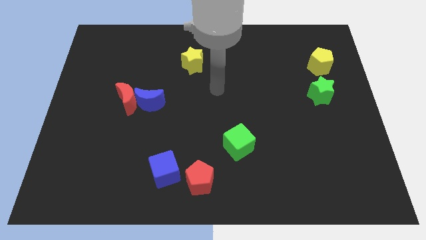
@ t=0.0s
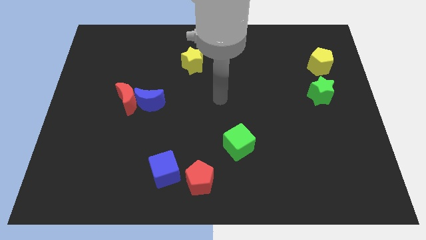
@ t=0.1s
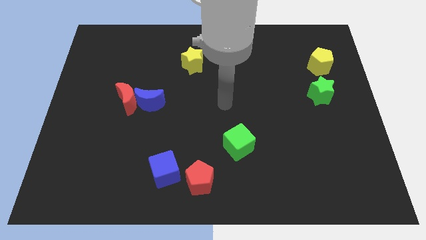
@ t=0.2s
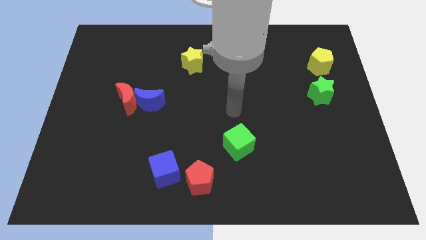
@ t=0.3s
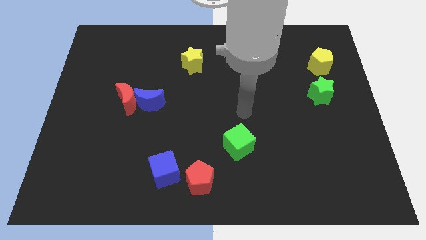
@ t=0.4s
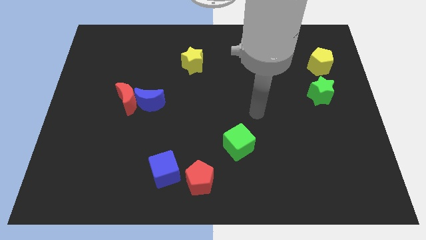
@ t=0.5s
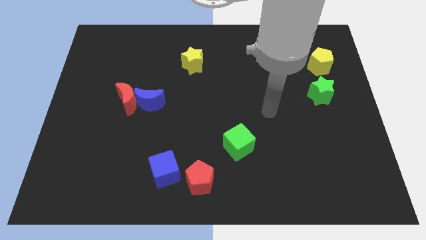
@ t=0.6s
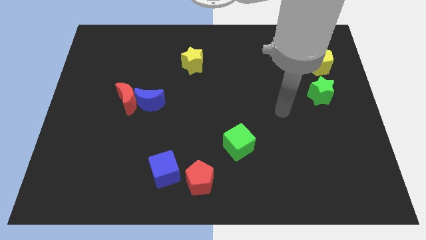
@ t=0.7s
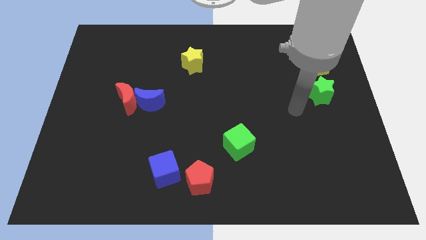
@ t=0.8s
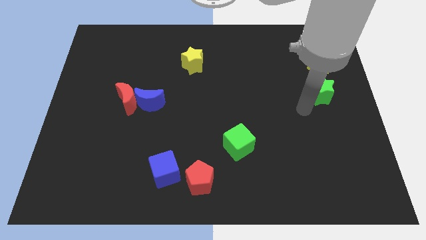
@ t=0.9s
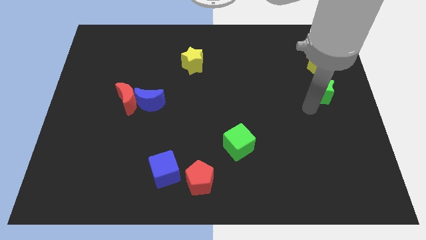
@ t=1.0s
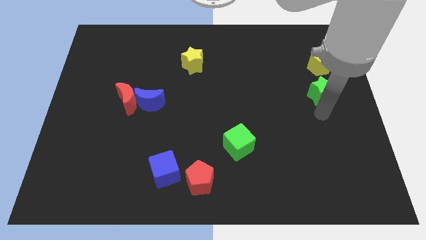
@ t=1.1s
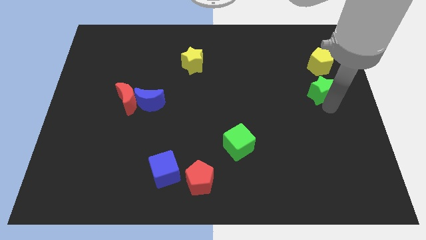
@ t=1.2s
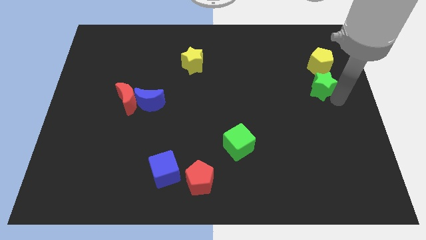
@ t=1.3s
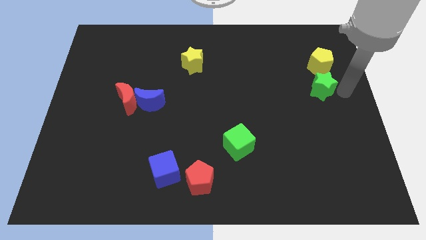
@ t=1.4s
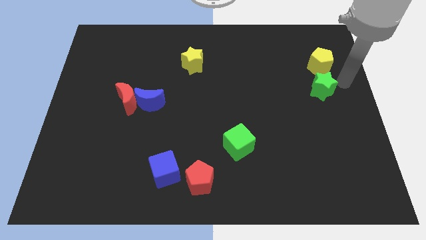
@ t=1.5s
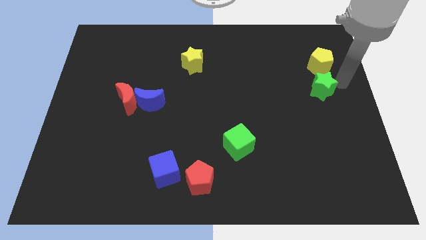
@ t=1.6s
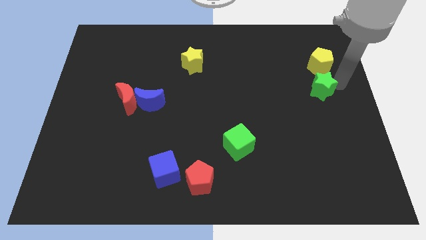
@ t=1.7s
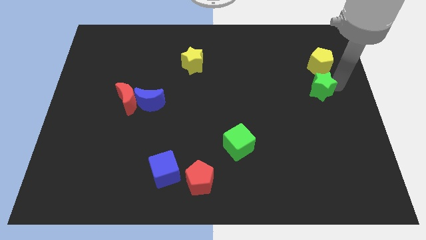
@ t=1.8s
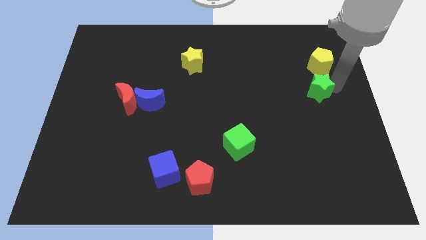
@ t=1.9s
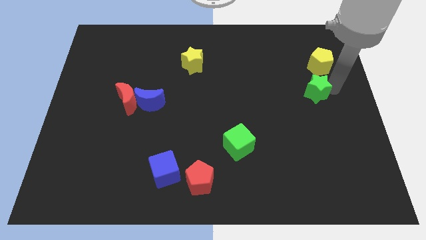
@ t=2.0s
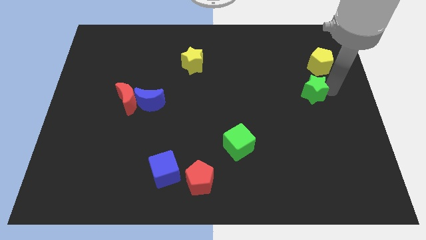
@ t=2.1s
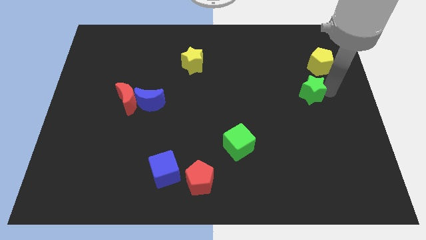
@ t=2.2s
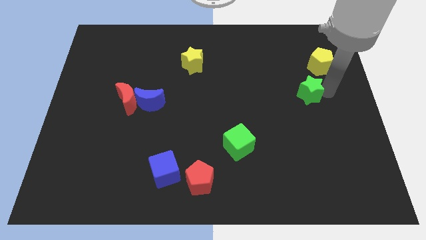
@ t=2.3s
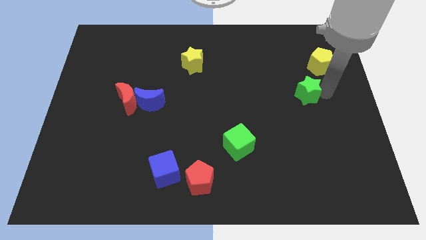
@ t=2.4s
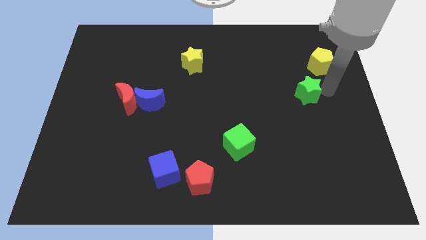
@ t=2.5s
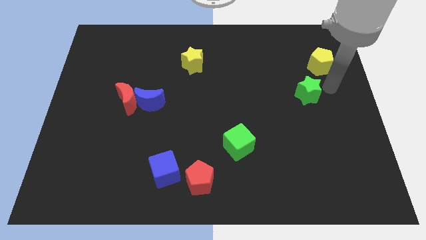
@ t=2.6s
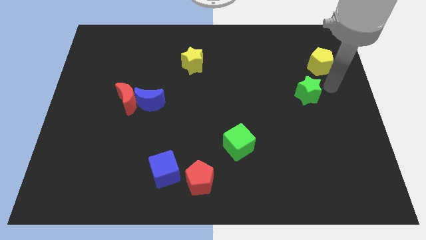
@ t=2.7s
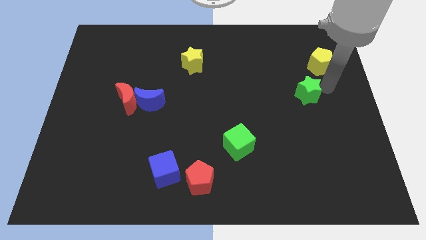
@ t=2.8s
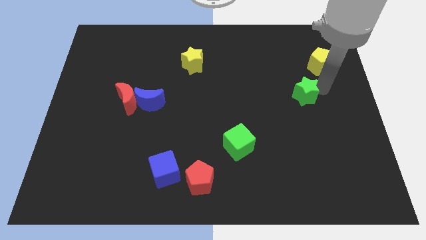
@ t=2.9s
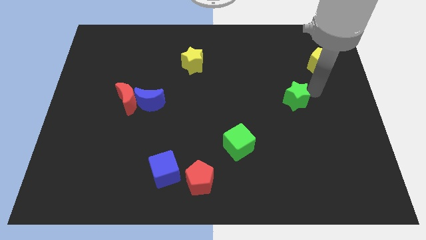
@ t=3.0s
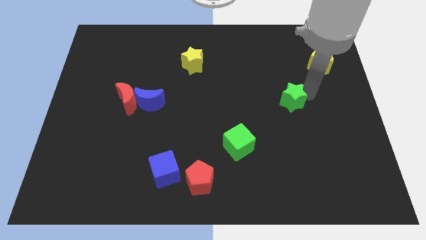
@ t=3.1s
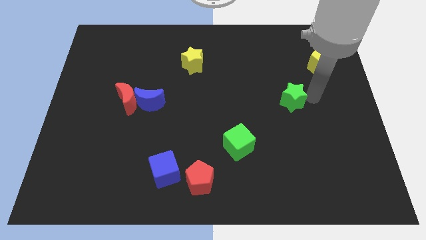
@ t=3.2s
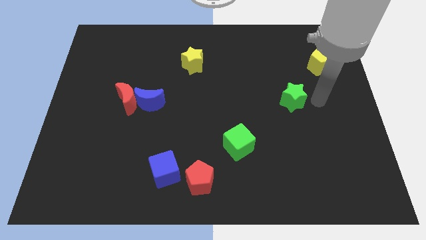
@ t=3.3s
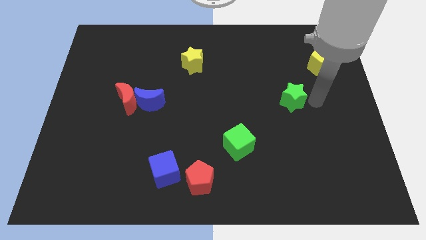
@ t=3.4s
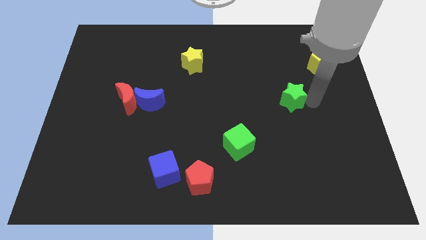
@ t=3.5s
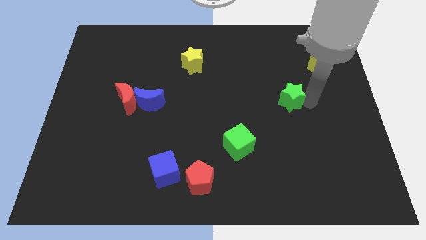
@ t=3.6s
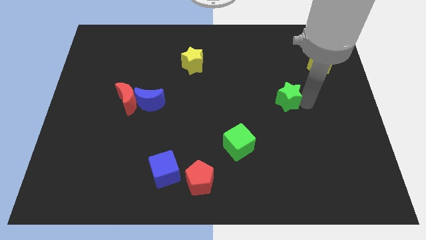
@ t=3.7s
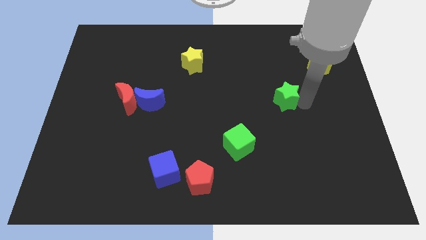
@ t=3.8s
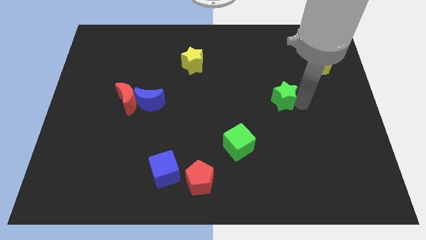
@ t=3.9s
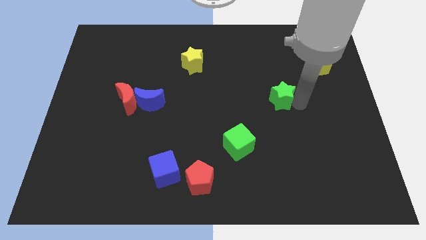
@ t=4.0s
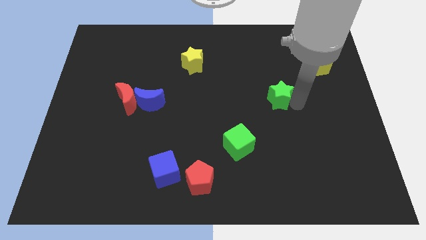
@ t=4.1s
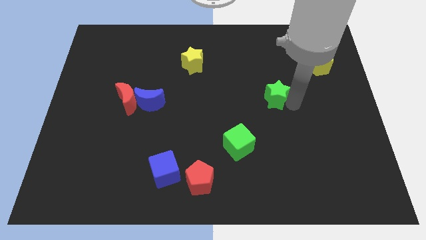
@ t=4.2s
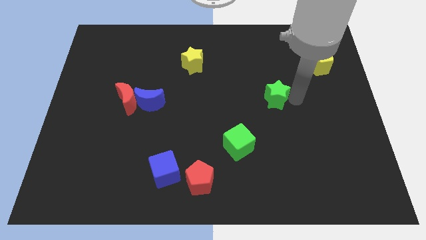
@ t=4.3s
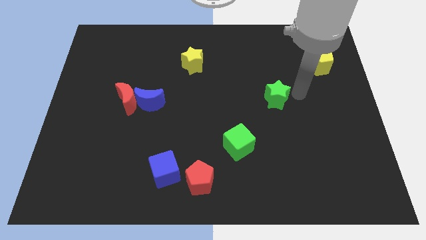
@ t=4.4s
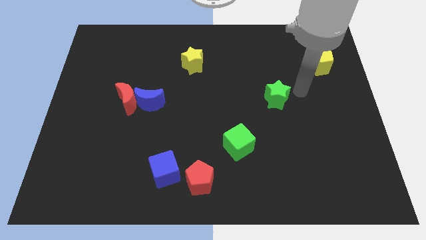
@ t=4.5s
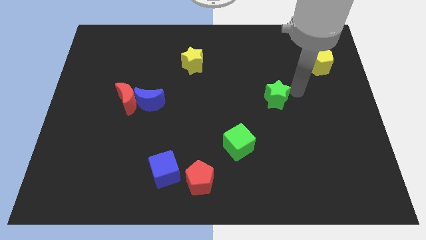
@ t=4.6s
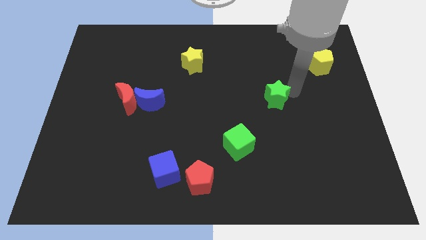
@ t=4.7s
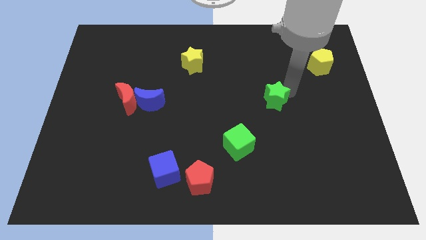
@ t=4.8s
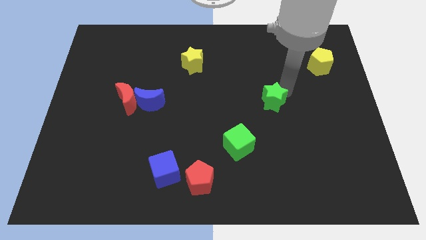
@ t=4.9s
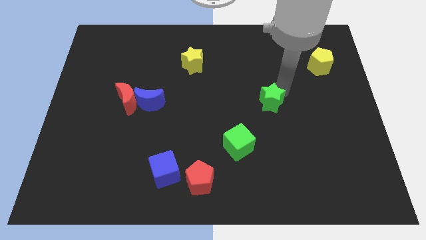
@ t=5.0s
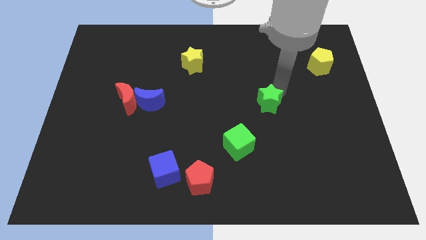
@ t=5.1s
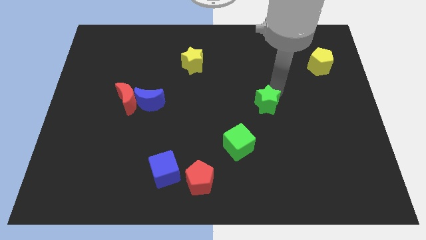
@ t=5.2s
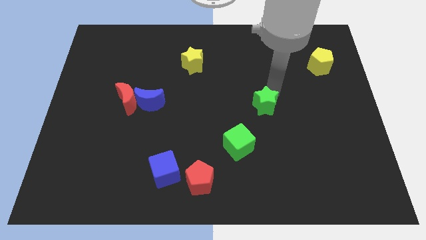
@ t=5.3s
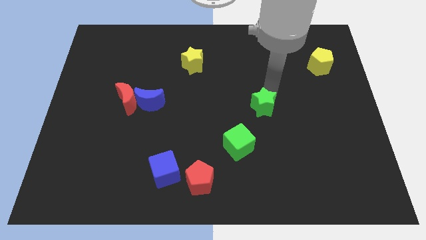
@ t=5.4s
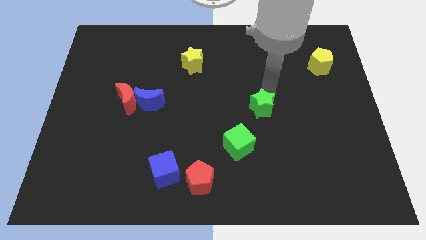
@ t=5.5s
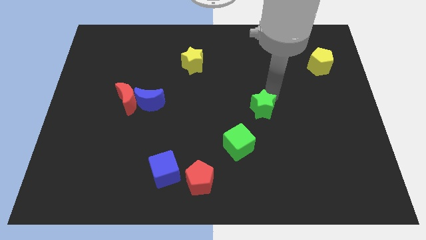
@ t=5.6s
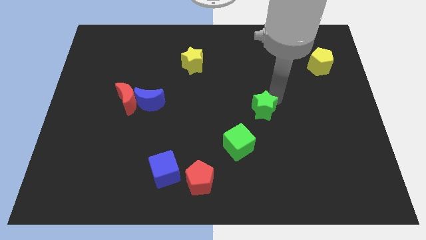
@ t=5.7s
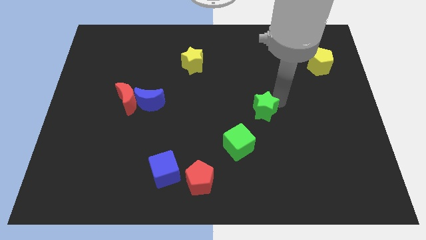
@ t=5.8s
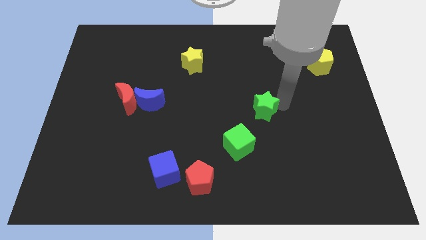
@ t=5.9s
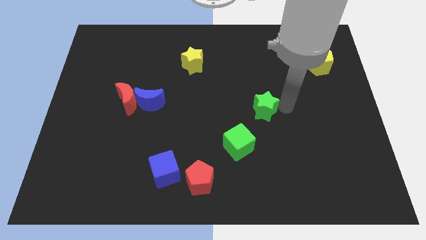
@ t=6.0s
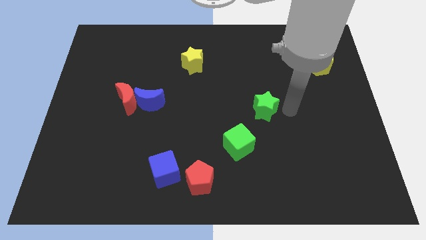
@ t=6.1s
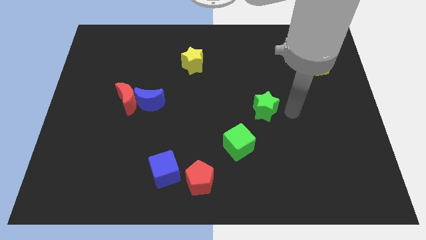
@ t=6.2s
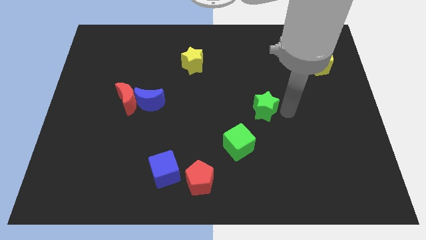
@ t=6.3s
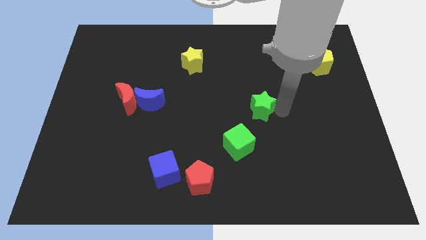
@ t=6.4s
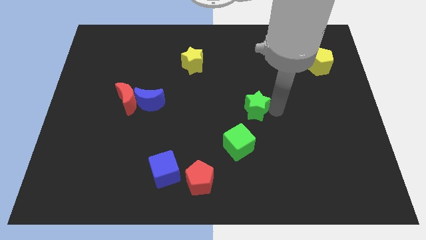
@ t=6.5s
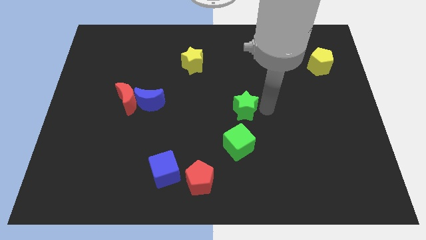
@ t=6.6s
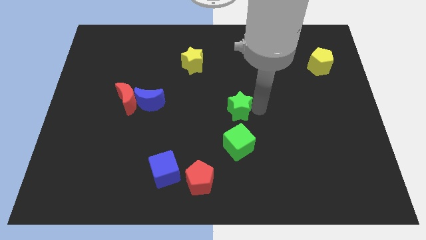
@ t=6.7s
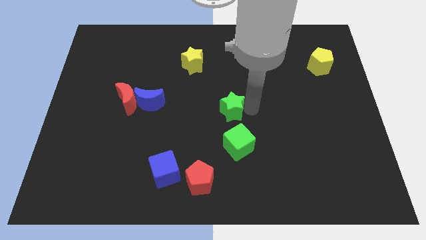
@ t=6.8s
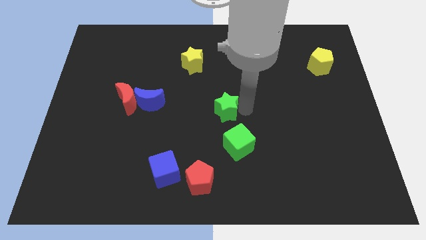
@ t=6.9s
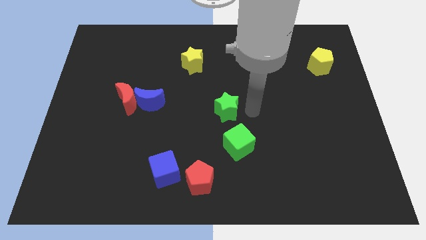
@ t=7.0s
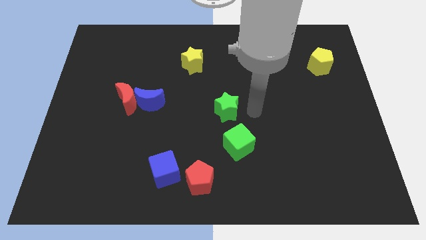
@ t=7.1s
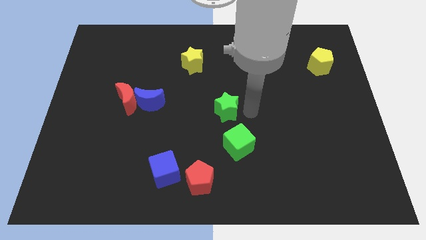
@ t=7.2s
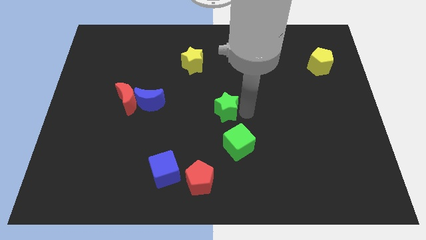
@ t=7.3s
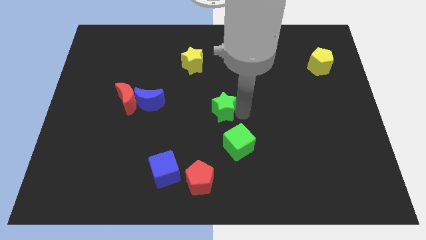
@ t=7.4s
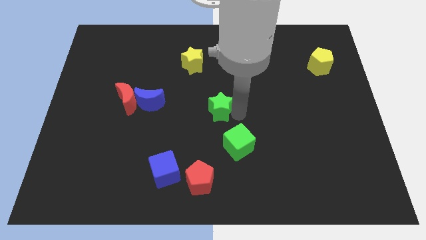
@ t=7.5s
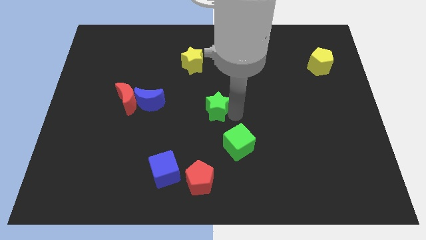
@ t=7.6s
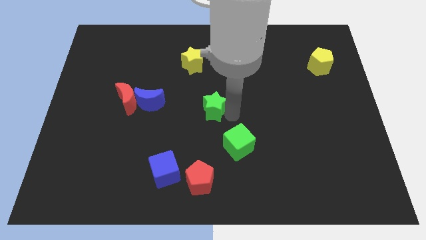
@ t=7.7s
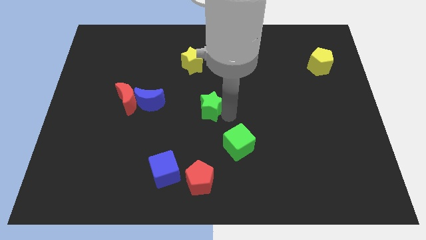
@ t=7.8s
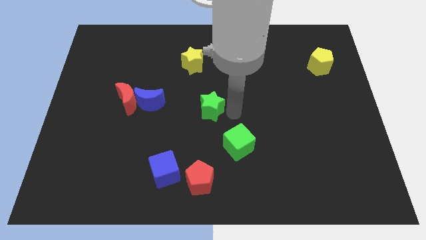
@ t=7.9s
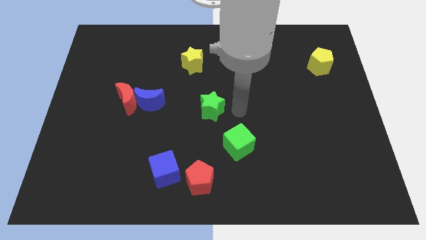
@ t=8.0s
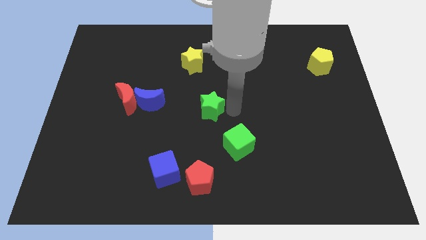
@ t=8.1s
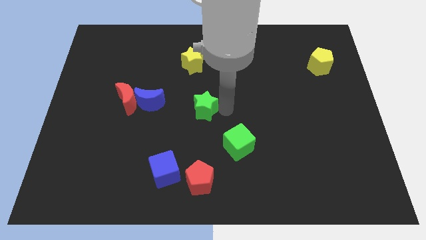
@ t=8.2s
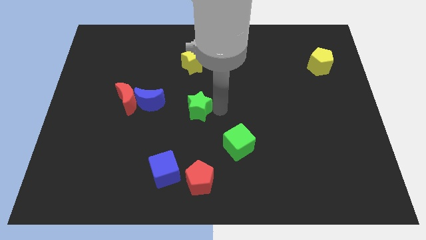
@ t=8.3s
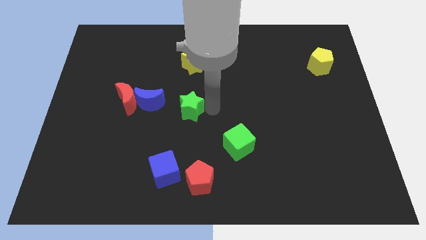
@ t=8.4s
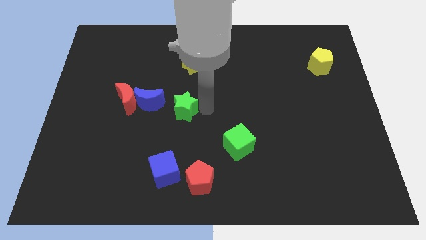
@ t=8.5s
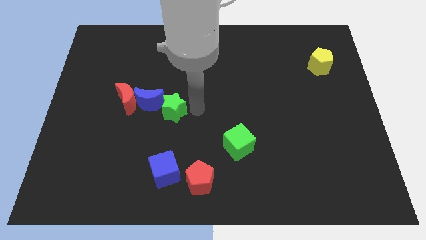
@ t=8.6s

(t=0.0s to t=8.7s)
slide the green star close to the blue moon
